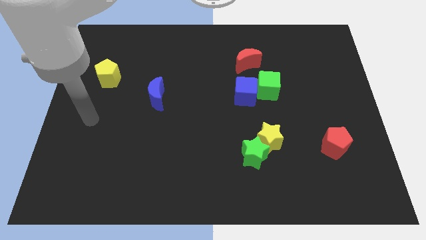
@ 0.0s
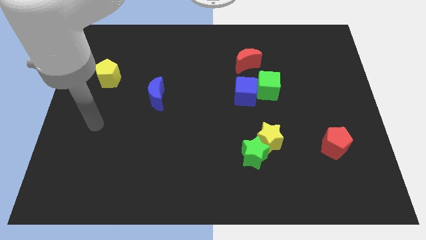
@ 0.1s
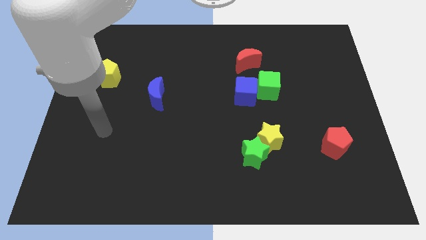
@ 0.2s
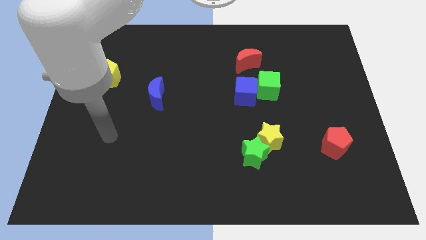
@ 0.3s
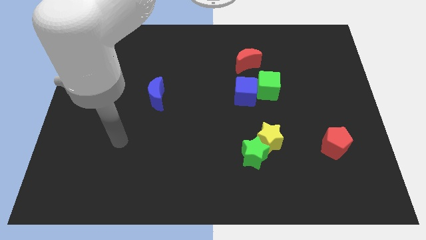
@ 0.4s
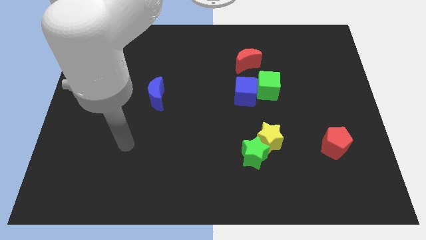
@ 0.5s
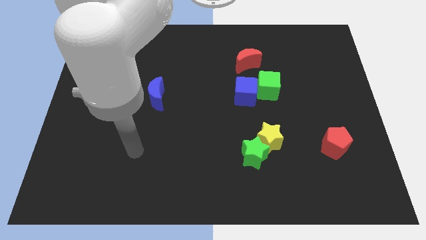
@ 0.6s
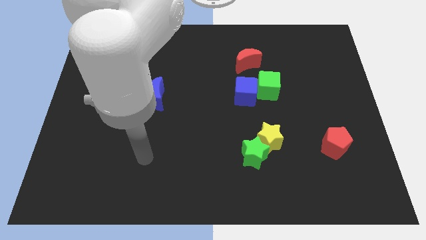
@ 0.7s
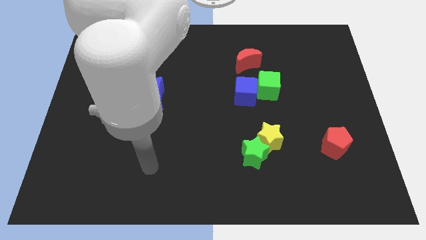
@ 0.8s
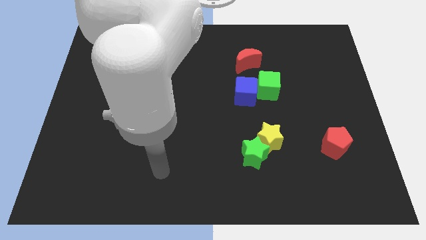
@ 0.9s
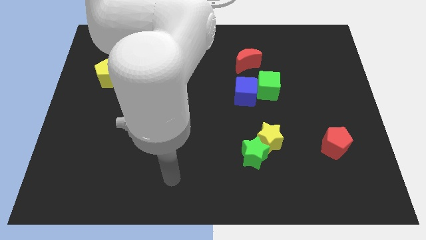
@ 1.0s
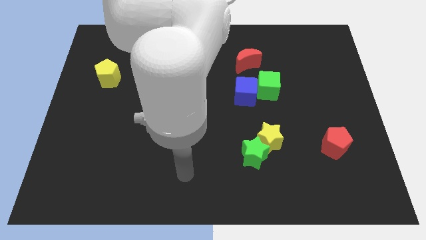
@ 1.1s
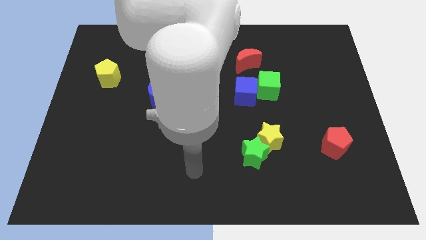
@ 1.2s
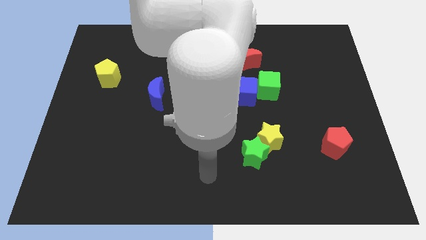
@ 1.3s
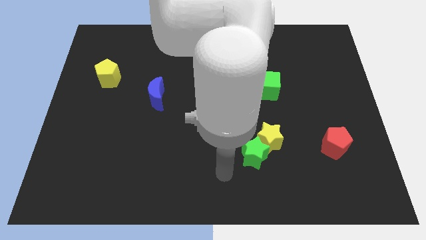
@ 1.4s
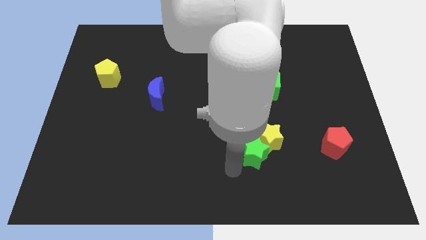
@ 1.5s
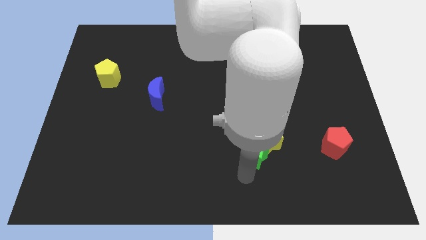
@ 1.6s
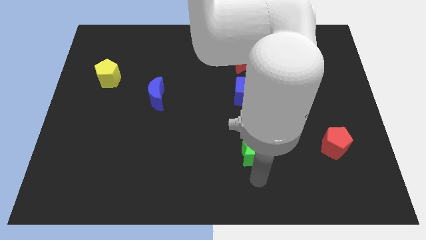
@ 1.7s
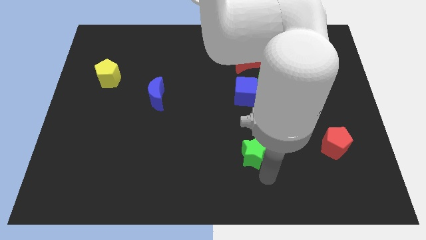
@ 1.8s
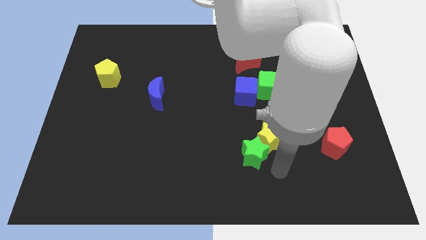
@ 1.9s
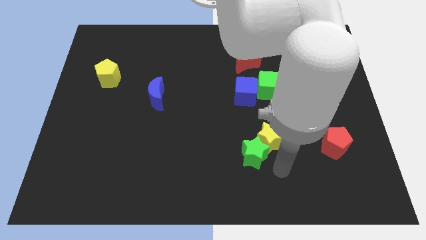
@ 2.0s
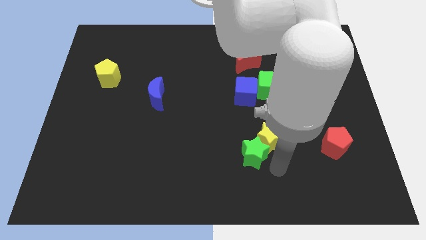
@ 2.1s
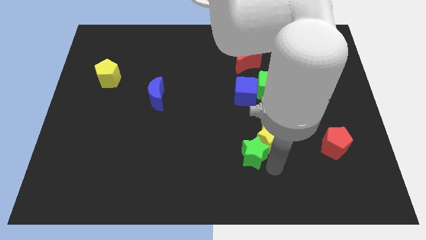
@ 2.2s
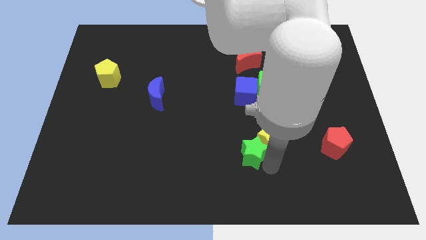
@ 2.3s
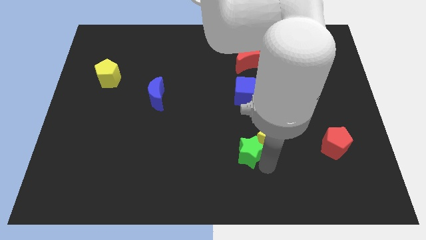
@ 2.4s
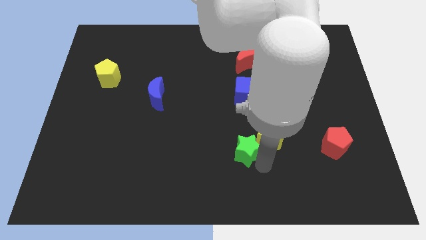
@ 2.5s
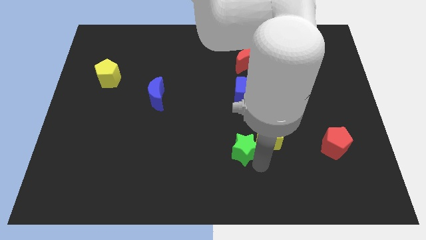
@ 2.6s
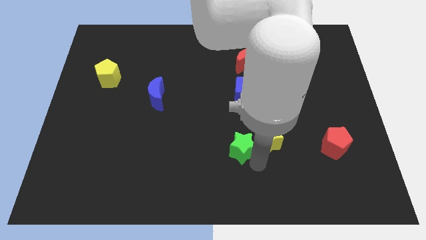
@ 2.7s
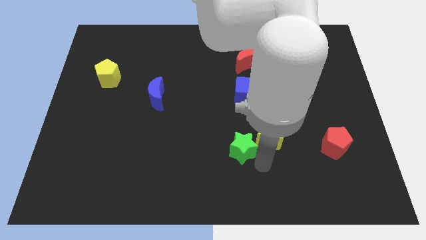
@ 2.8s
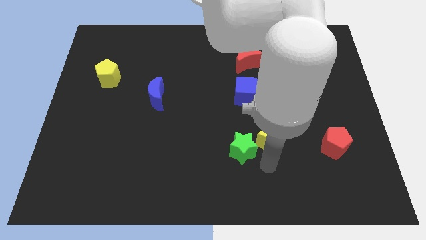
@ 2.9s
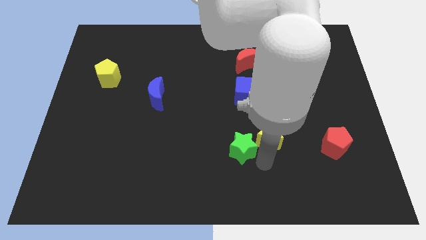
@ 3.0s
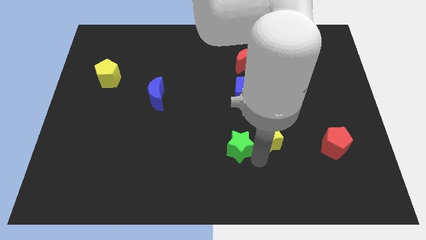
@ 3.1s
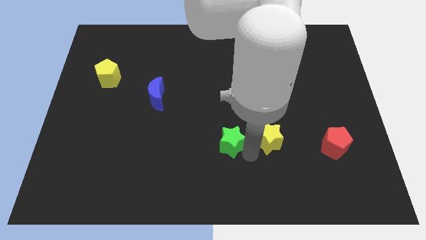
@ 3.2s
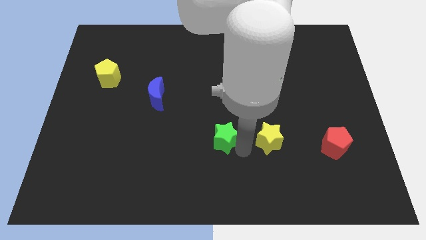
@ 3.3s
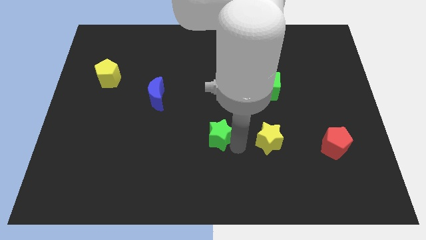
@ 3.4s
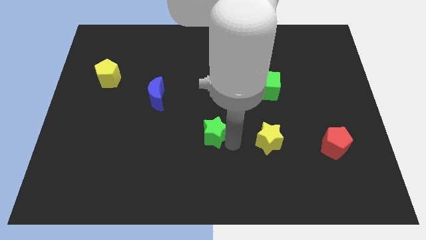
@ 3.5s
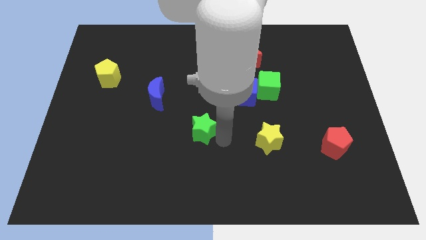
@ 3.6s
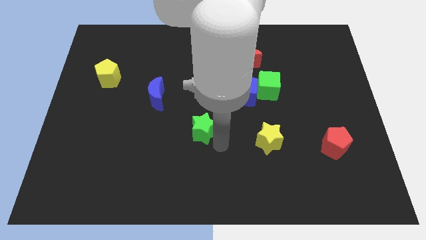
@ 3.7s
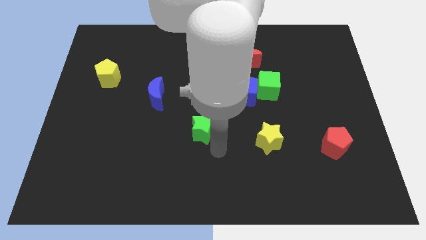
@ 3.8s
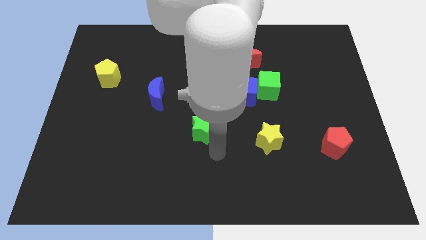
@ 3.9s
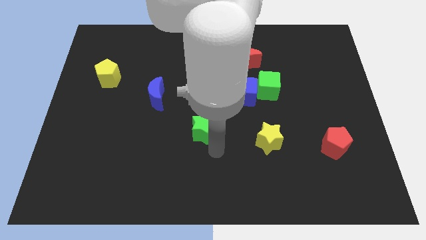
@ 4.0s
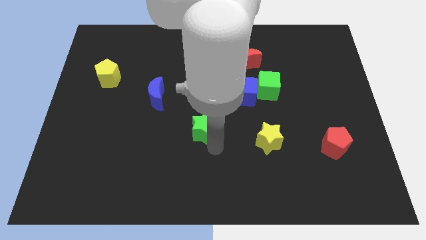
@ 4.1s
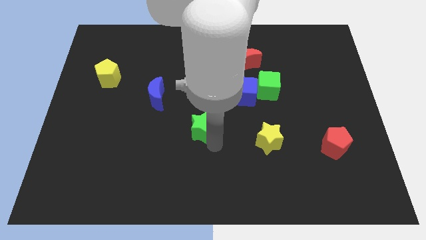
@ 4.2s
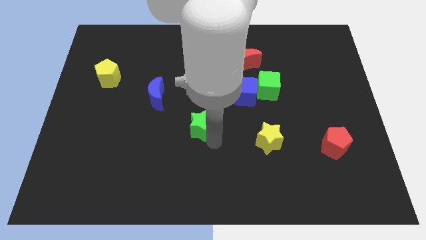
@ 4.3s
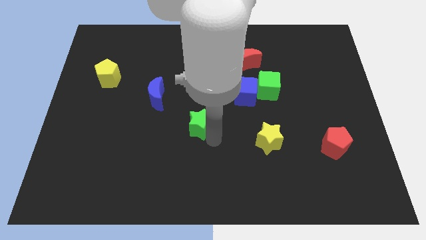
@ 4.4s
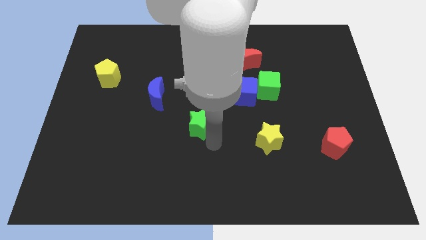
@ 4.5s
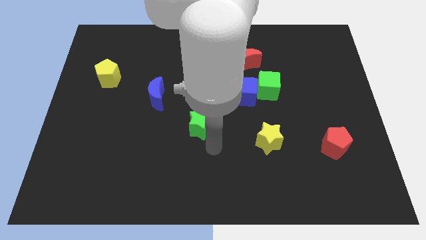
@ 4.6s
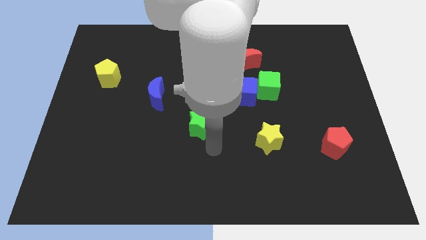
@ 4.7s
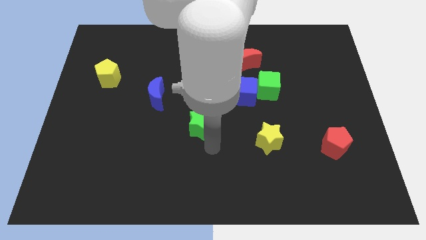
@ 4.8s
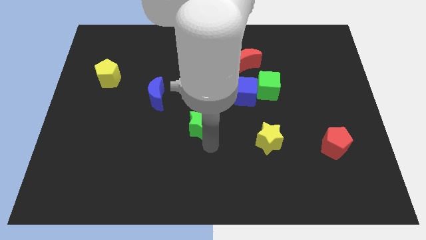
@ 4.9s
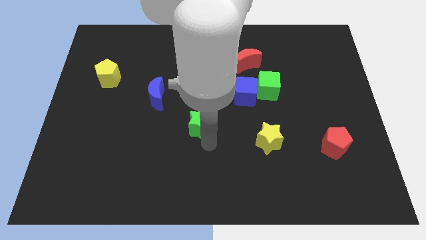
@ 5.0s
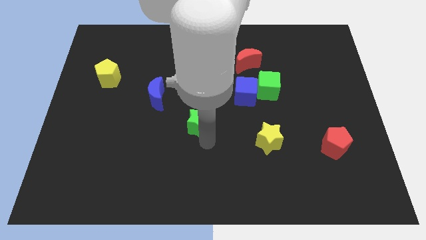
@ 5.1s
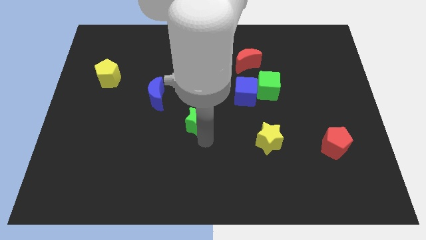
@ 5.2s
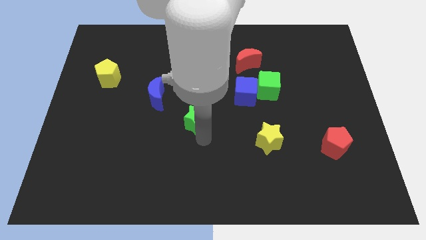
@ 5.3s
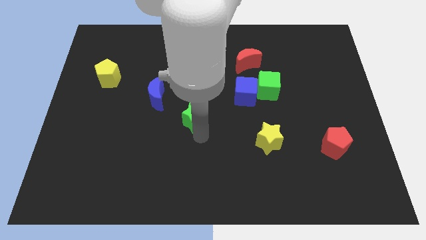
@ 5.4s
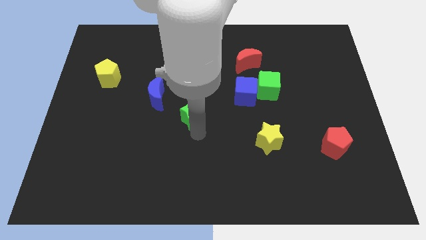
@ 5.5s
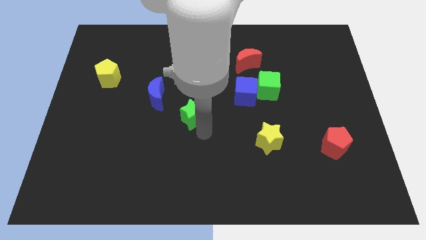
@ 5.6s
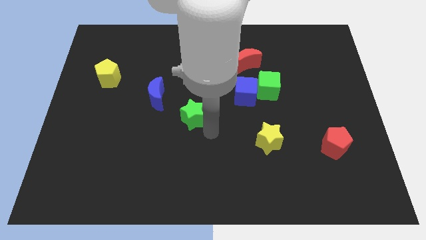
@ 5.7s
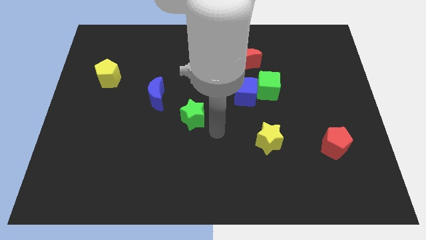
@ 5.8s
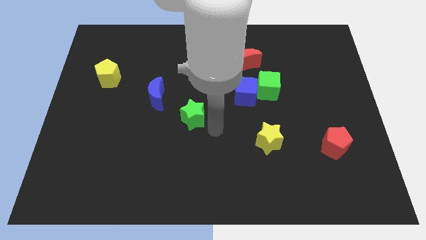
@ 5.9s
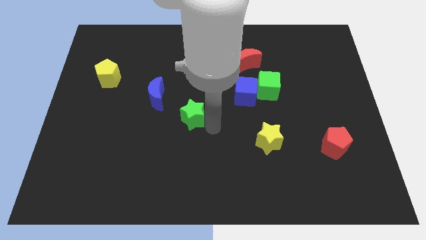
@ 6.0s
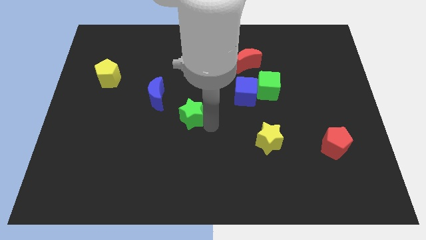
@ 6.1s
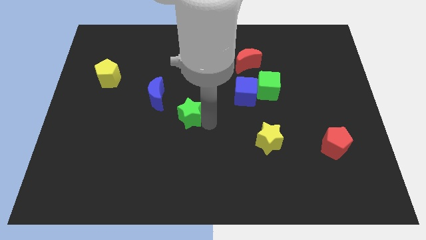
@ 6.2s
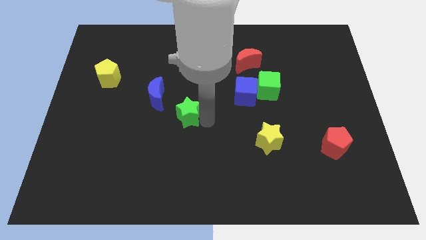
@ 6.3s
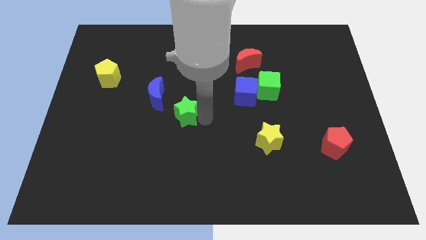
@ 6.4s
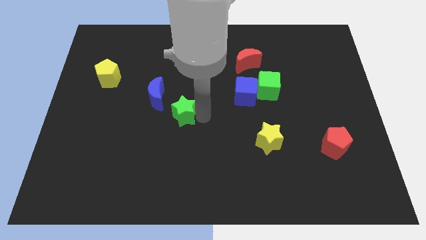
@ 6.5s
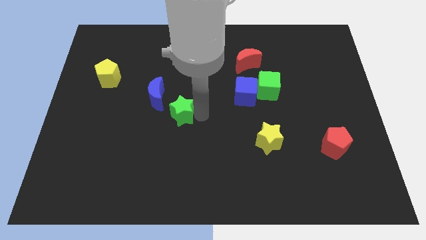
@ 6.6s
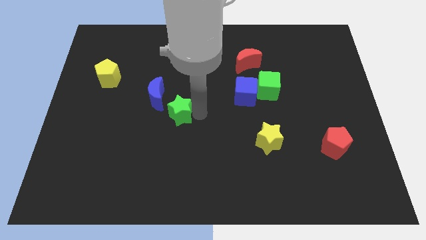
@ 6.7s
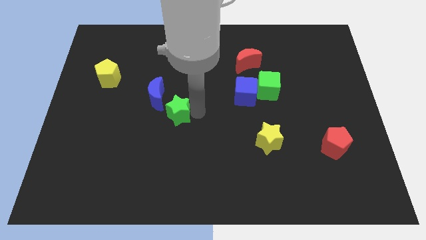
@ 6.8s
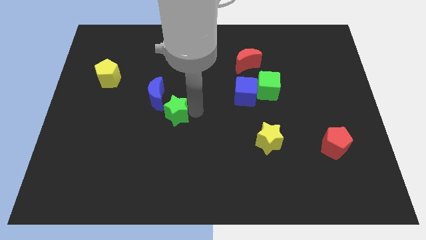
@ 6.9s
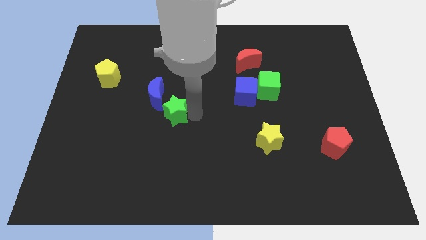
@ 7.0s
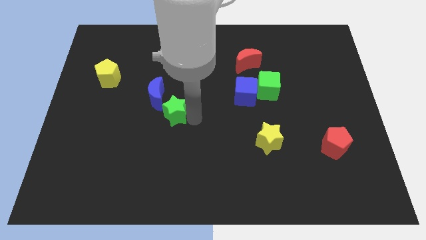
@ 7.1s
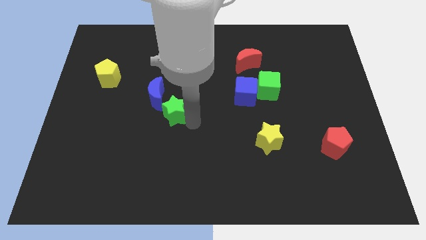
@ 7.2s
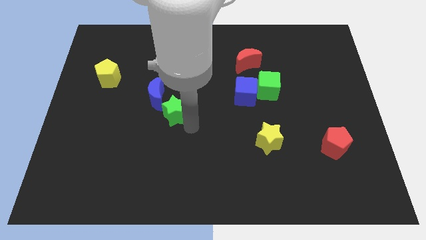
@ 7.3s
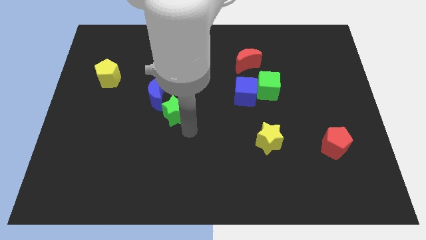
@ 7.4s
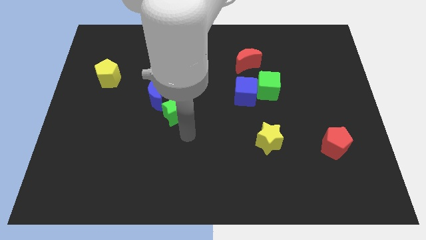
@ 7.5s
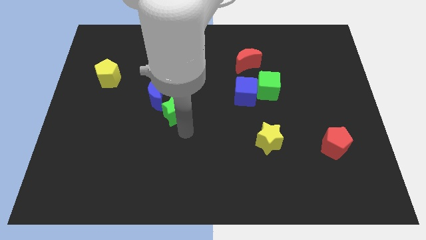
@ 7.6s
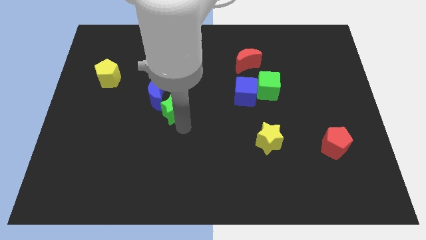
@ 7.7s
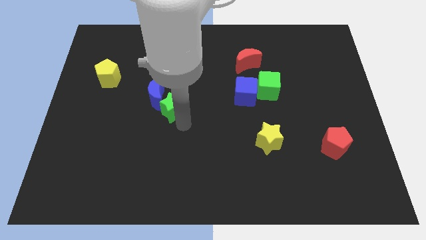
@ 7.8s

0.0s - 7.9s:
put the green star close to the blue moon
